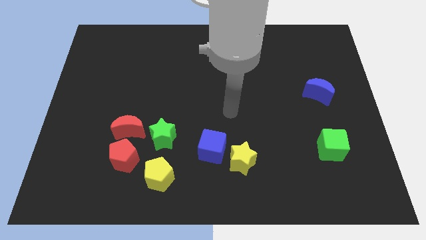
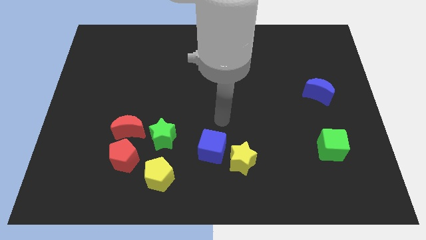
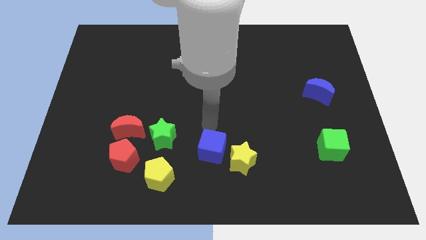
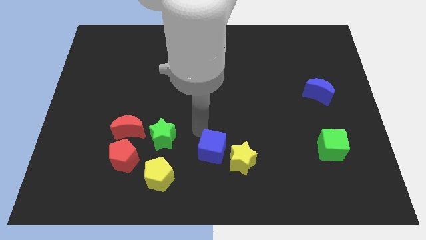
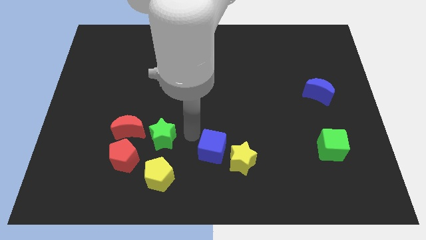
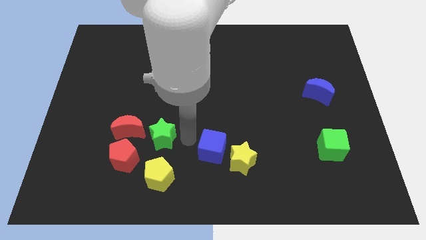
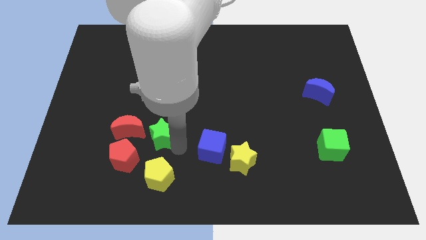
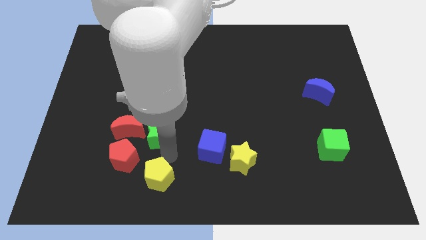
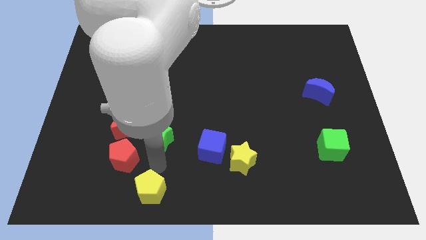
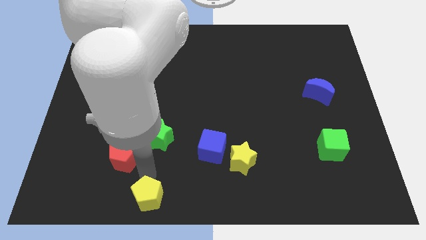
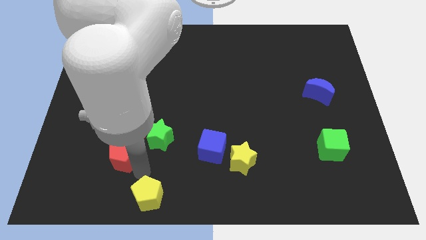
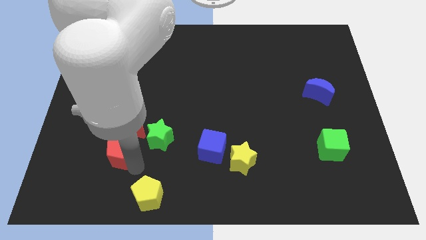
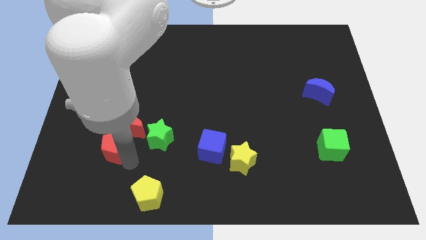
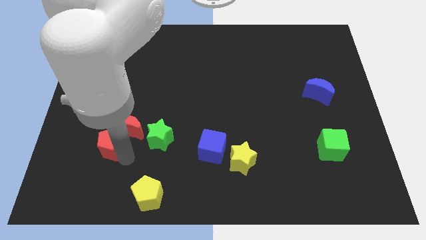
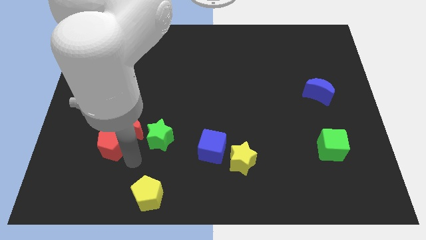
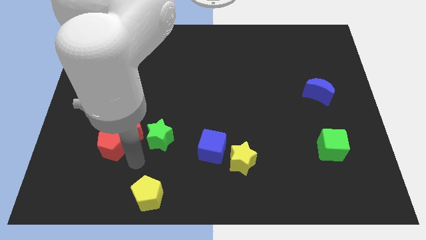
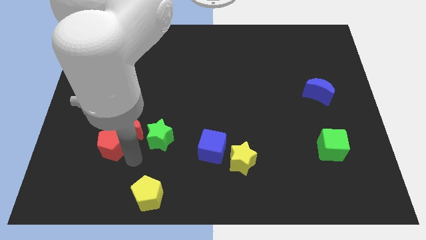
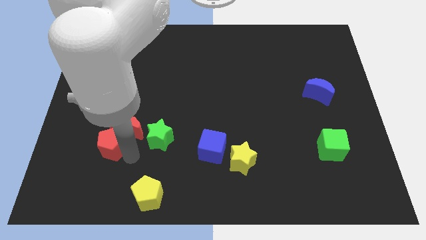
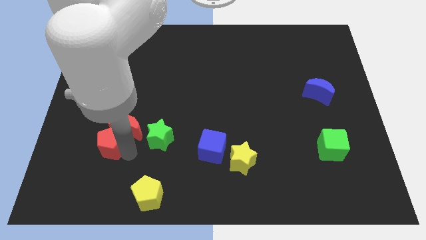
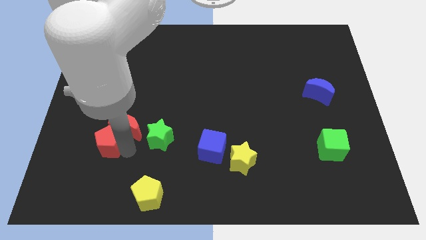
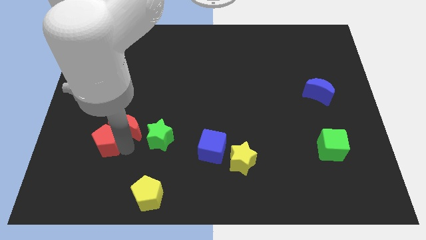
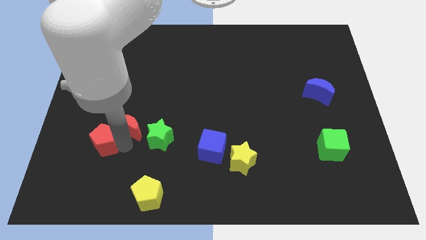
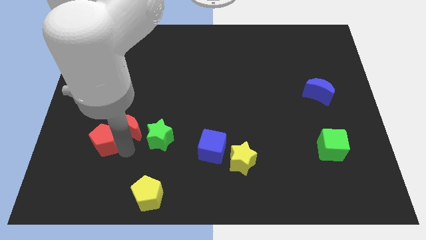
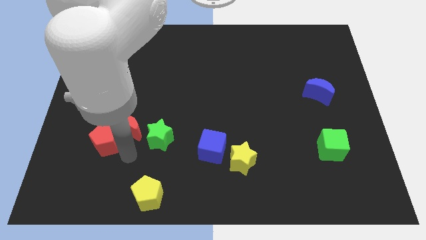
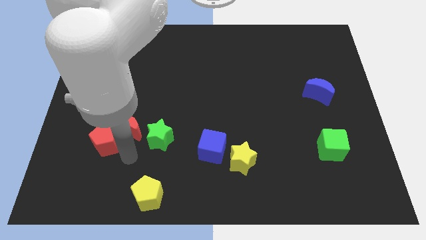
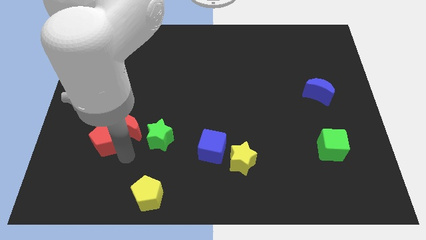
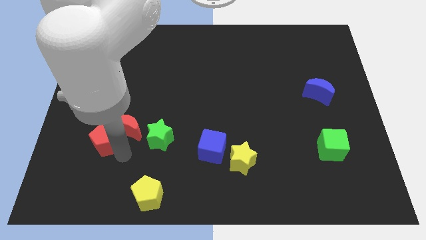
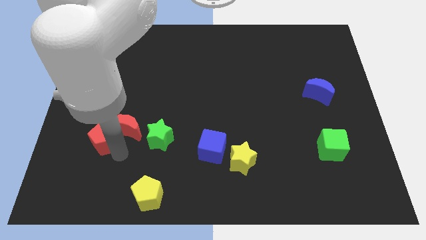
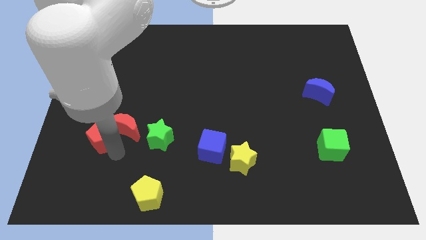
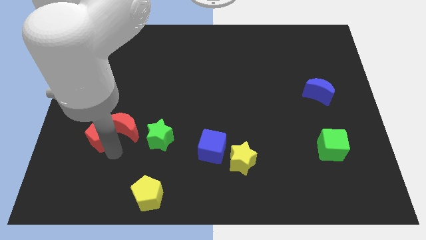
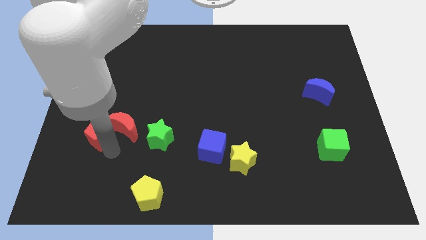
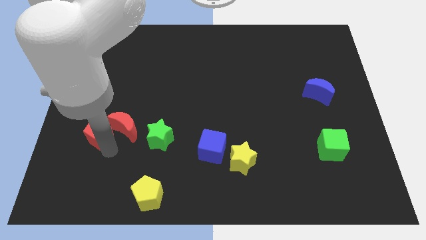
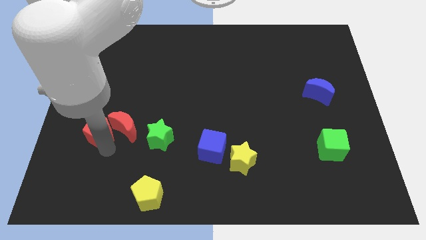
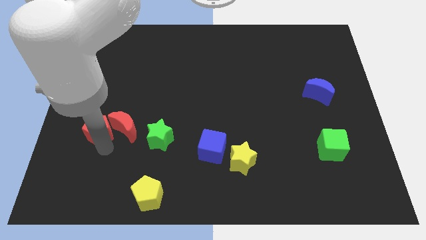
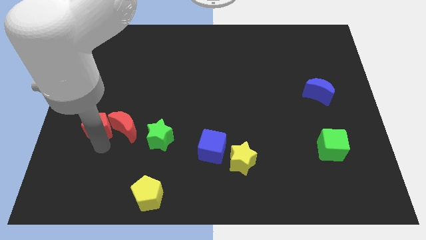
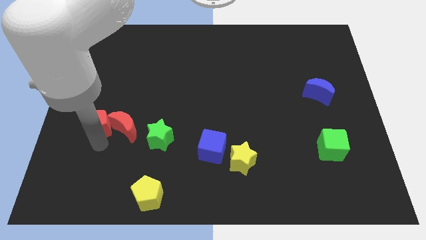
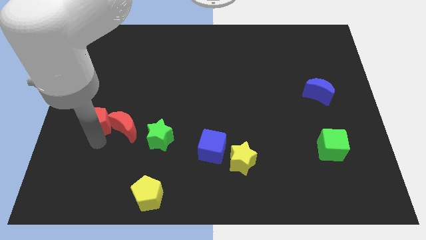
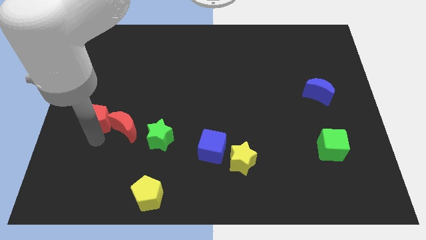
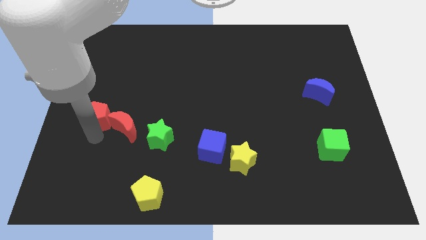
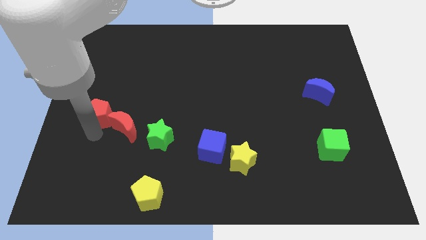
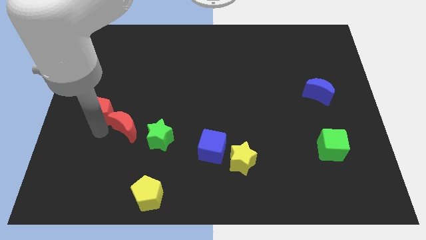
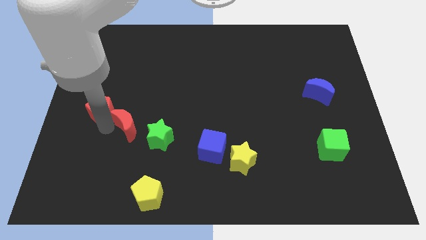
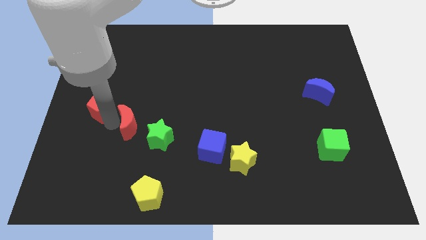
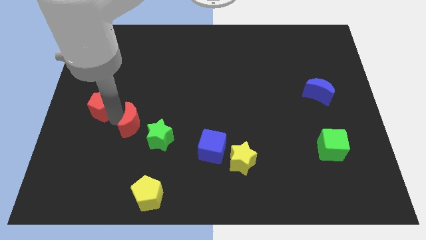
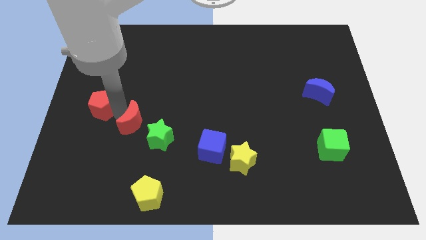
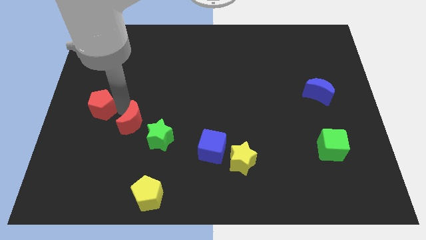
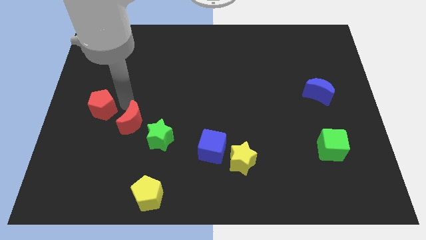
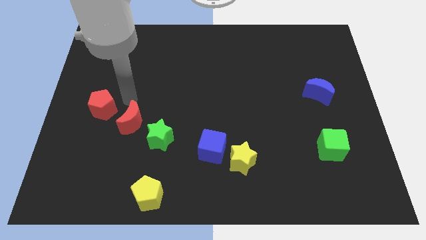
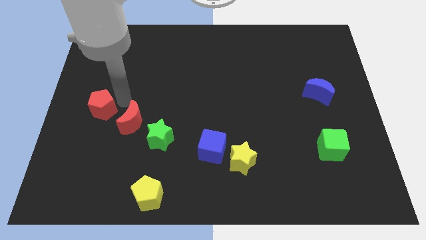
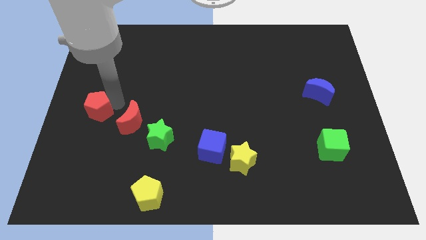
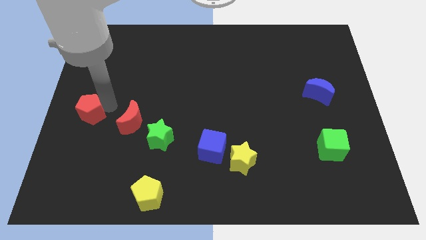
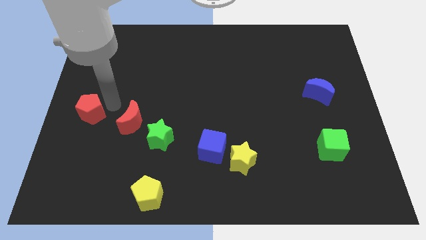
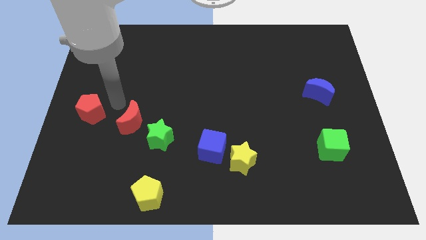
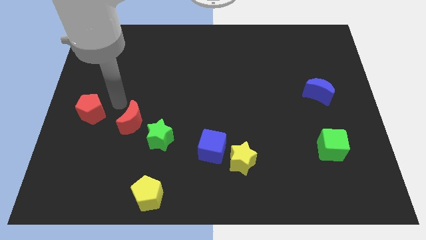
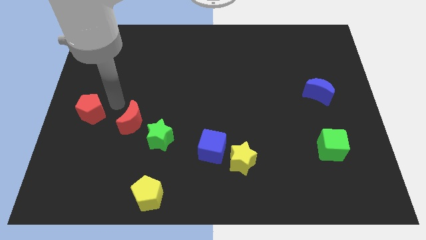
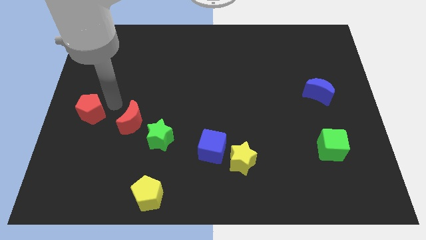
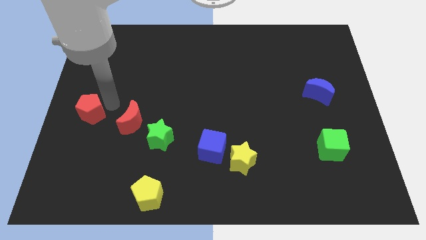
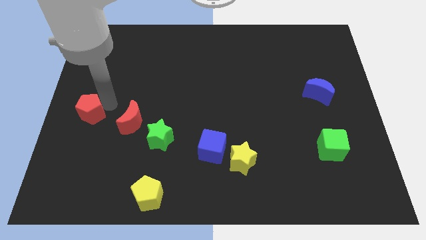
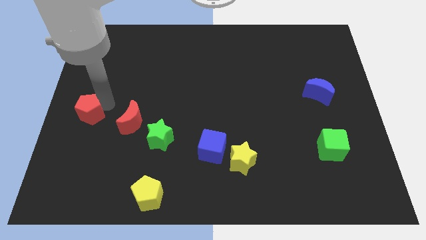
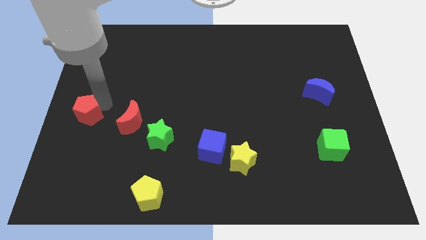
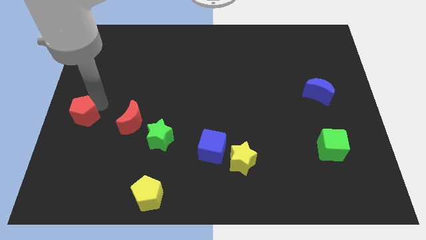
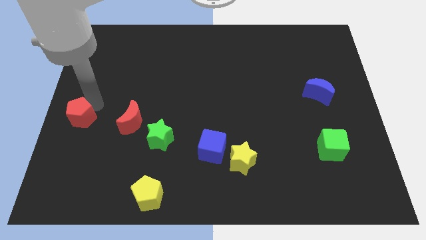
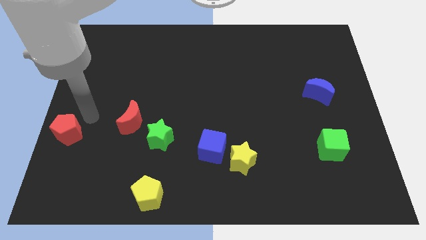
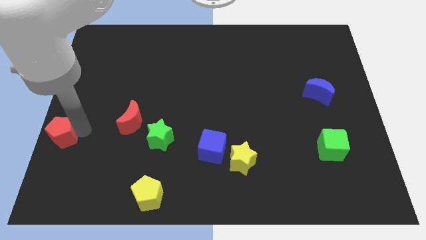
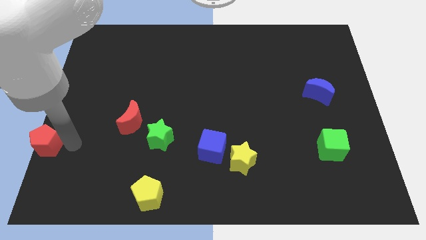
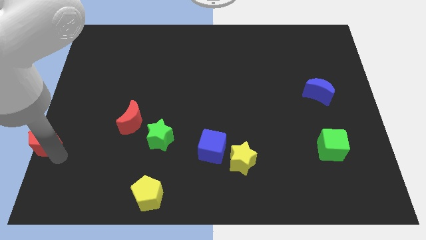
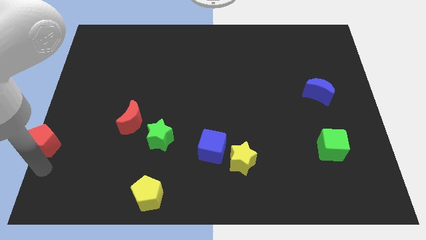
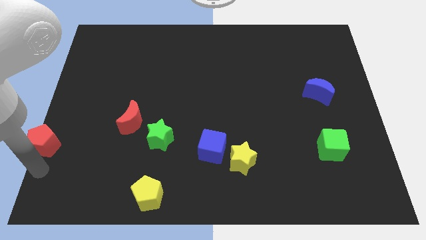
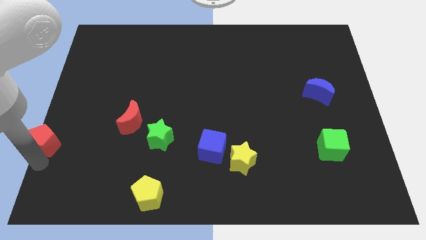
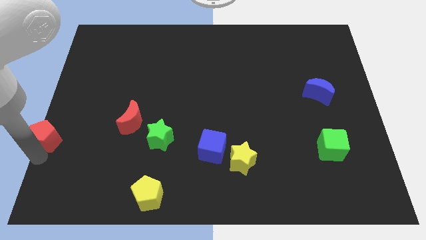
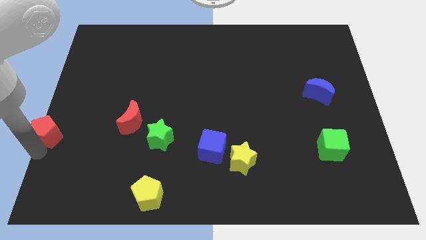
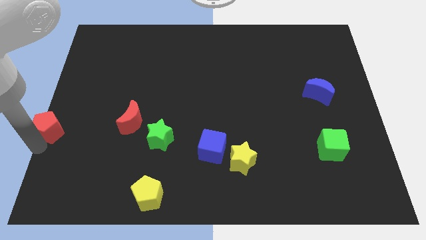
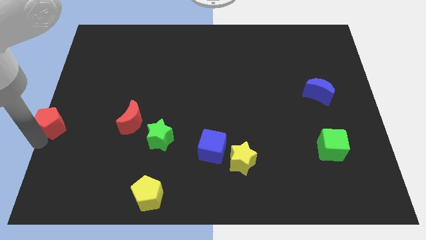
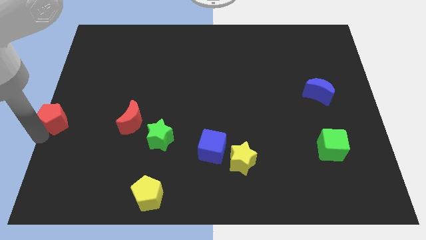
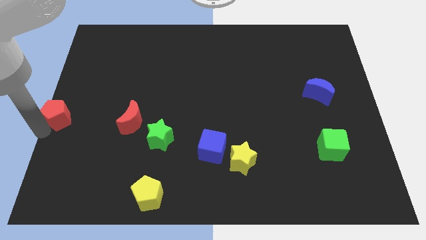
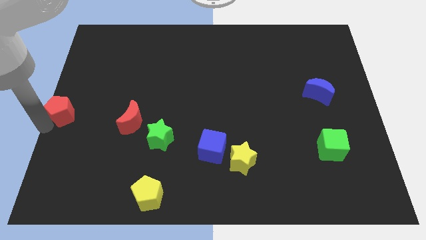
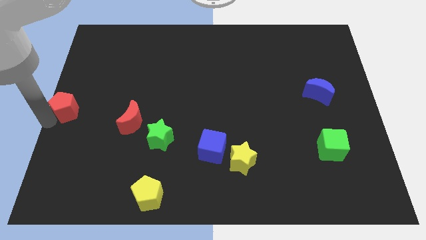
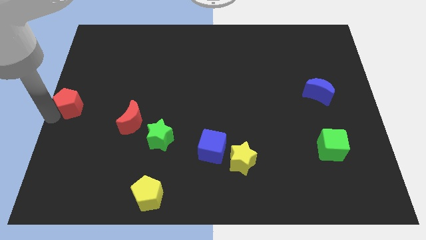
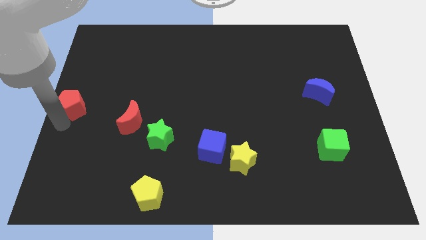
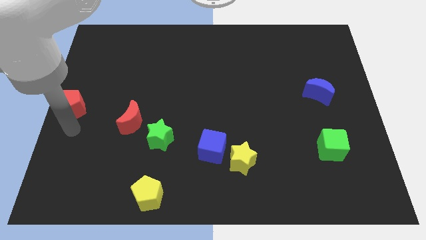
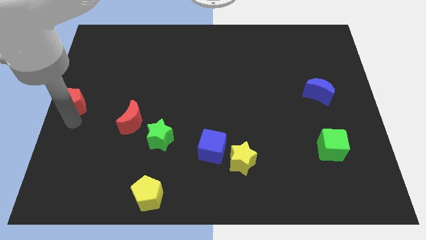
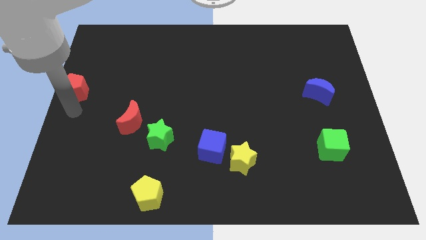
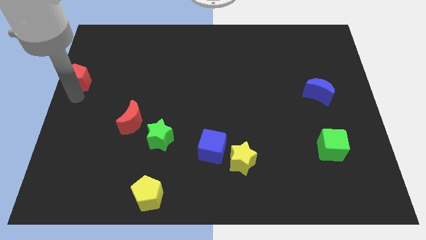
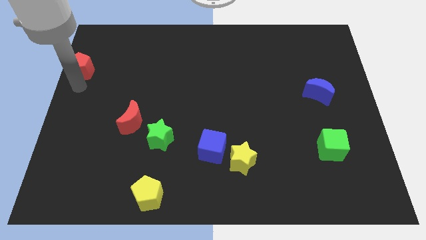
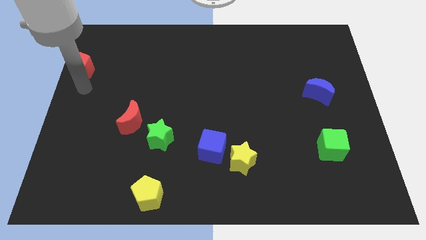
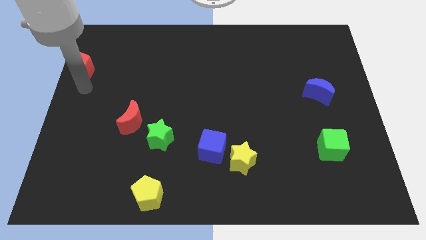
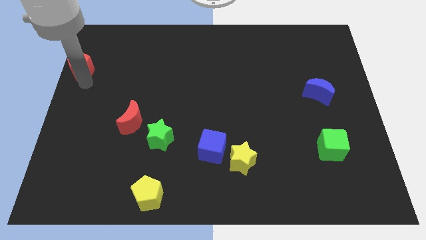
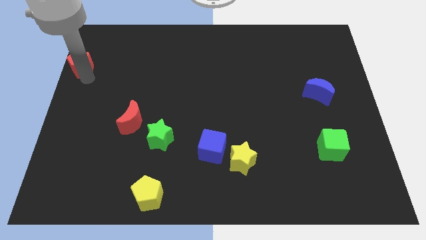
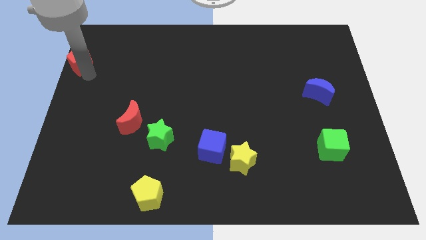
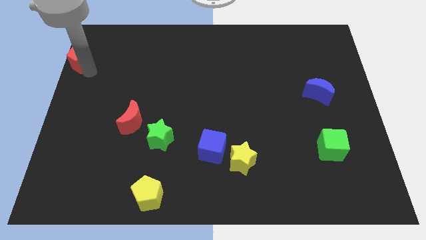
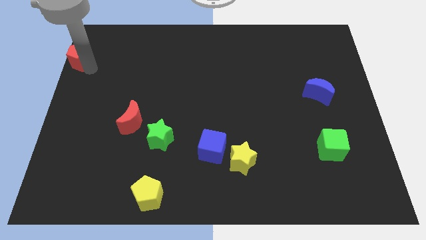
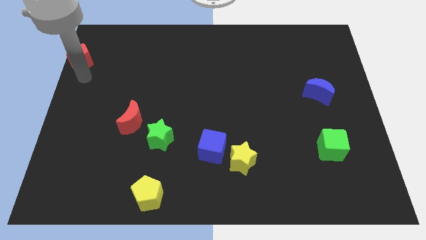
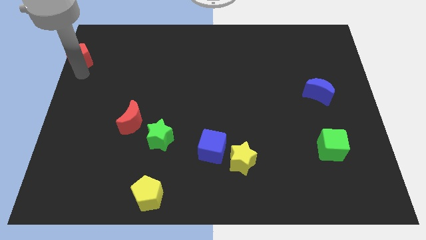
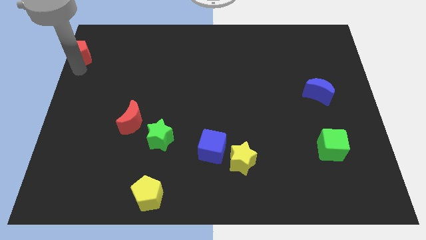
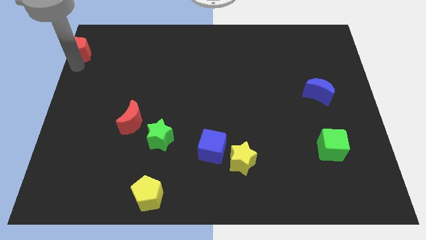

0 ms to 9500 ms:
put the red pentagon to the top left corner
